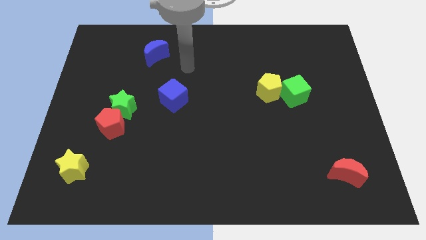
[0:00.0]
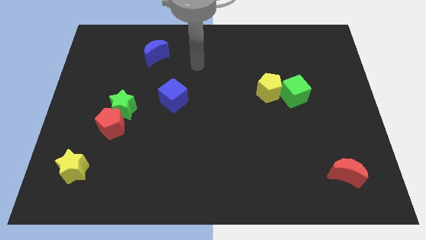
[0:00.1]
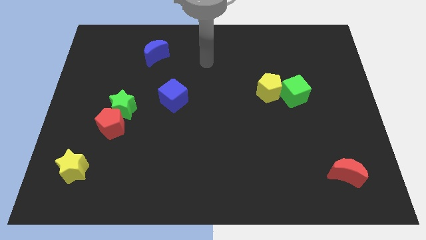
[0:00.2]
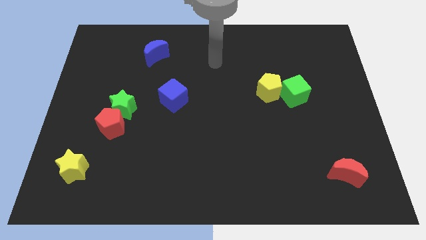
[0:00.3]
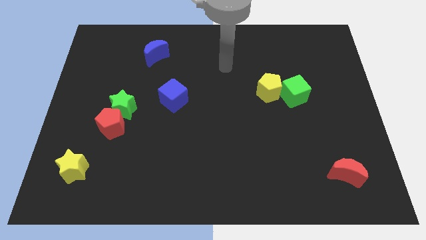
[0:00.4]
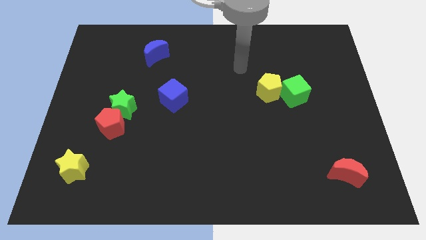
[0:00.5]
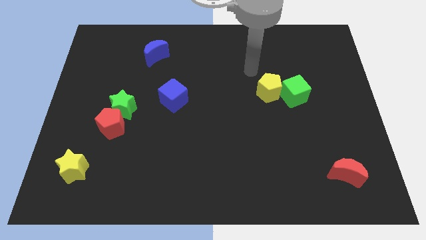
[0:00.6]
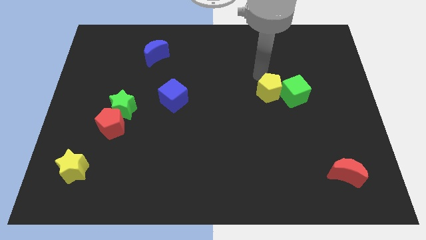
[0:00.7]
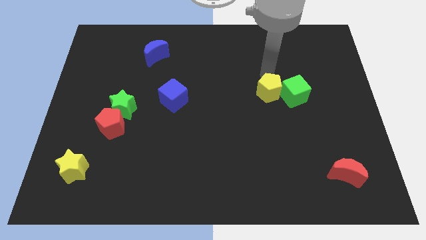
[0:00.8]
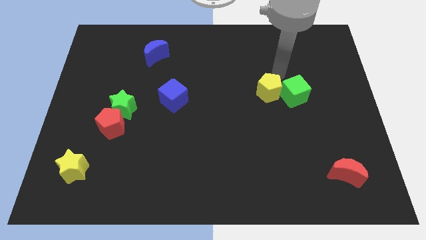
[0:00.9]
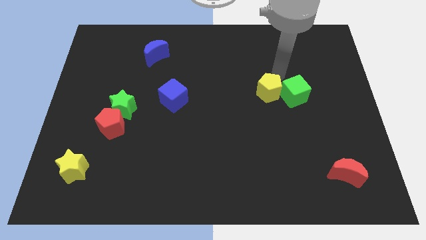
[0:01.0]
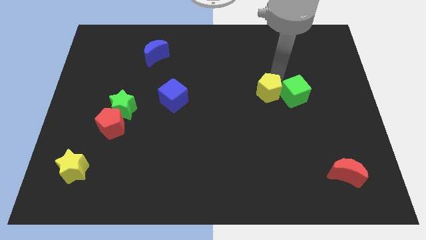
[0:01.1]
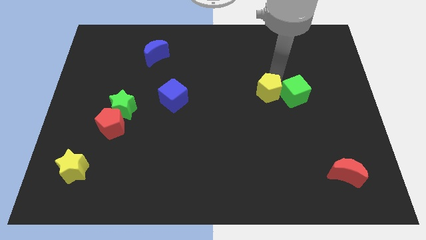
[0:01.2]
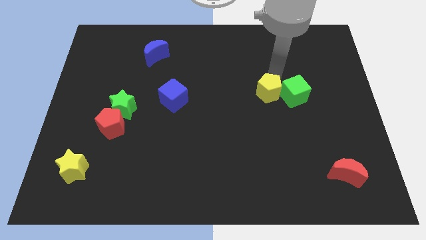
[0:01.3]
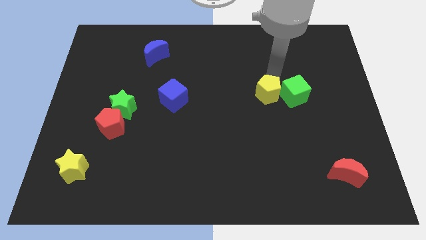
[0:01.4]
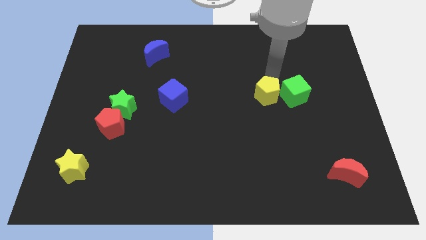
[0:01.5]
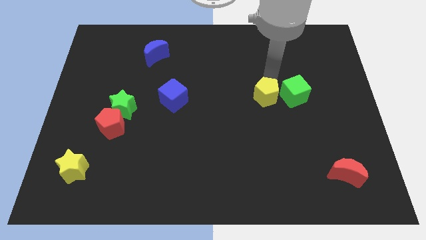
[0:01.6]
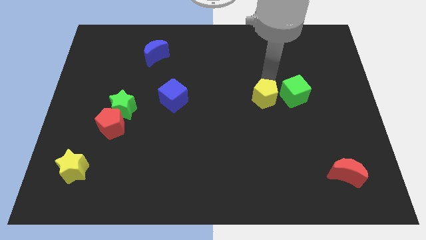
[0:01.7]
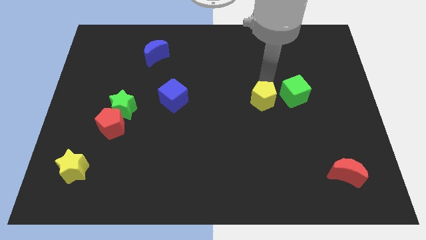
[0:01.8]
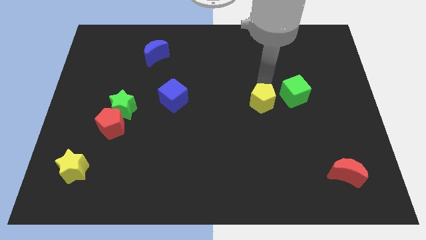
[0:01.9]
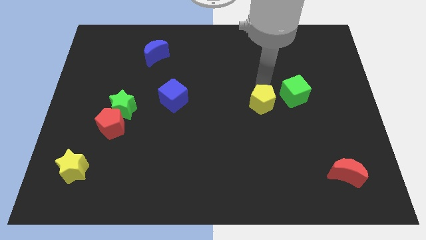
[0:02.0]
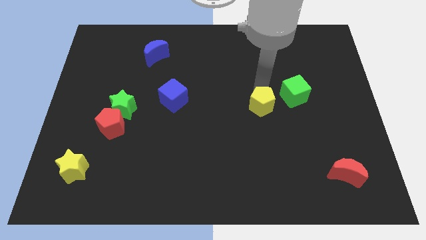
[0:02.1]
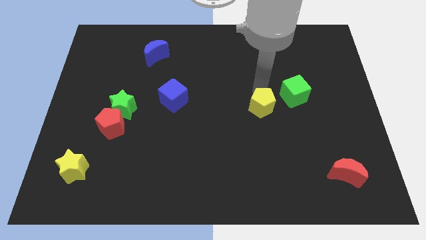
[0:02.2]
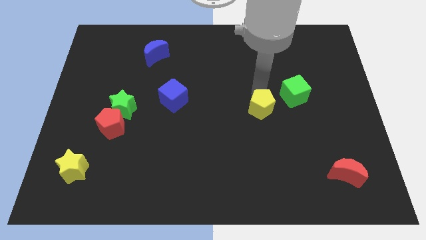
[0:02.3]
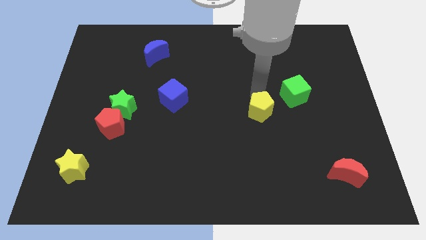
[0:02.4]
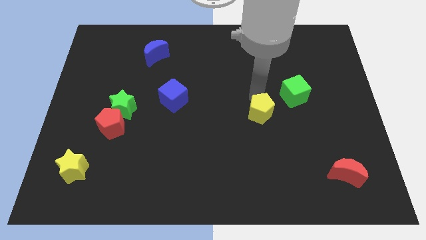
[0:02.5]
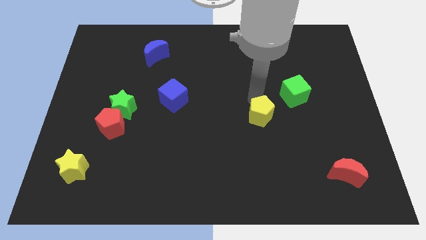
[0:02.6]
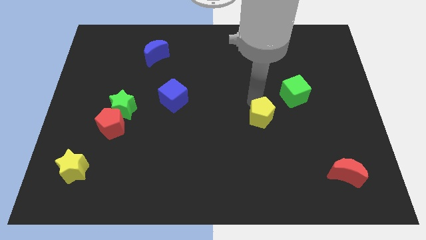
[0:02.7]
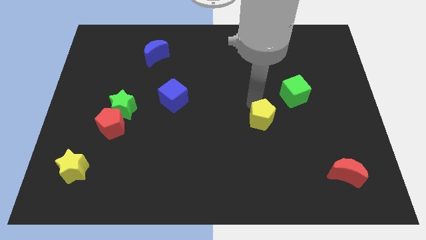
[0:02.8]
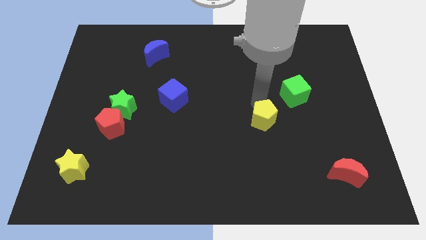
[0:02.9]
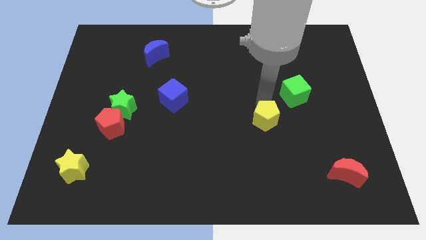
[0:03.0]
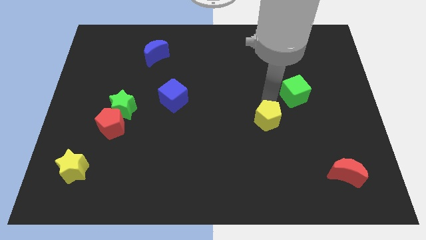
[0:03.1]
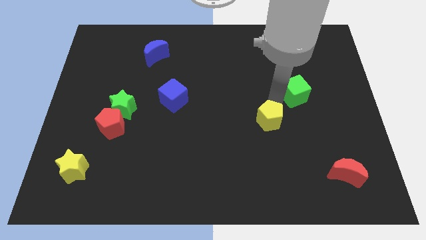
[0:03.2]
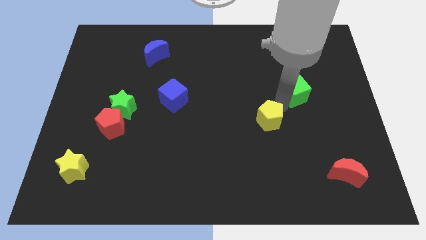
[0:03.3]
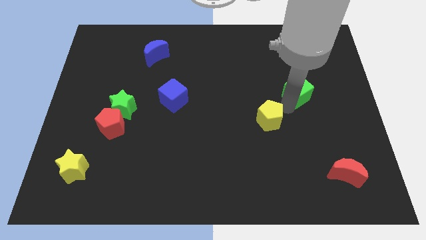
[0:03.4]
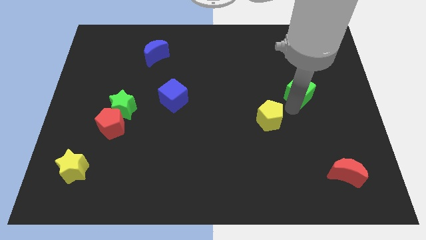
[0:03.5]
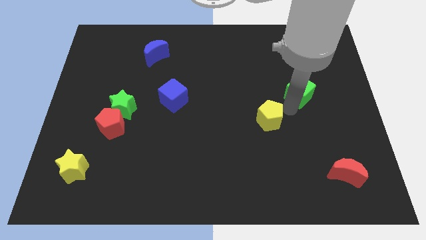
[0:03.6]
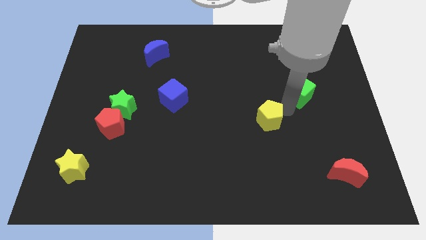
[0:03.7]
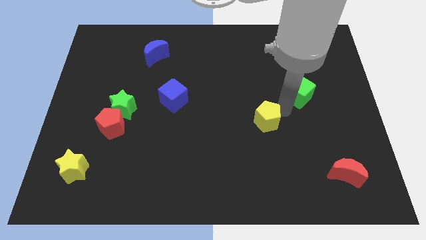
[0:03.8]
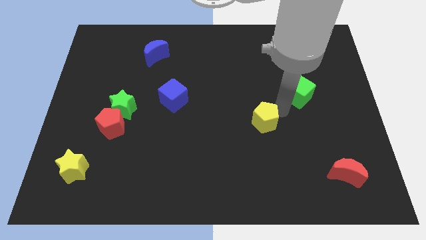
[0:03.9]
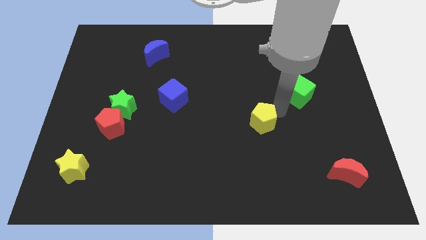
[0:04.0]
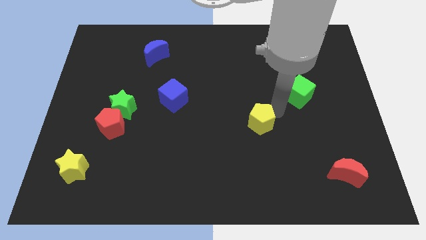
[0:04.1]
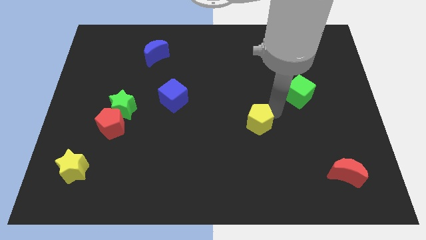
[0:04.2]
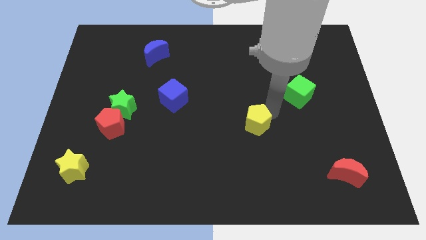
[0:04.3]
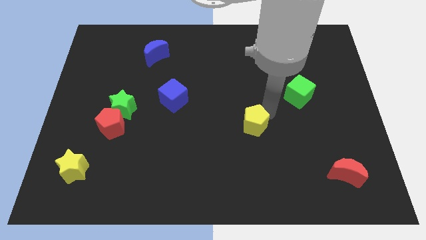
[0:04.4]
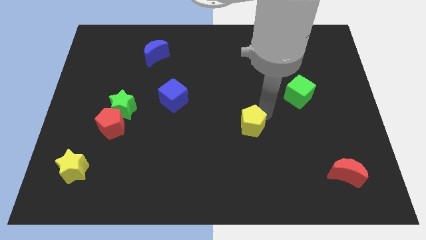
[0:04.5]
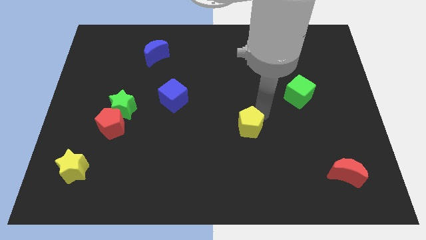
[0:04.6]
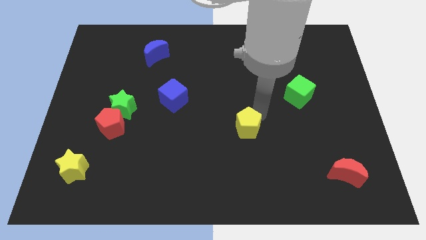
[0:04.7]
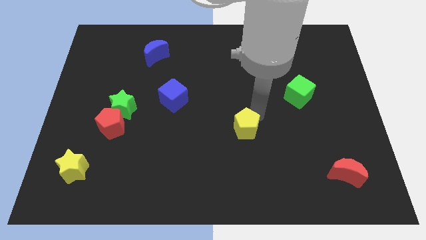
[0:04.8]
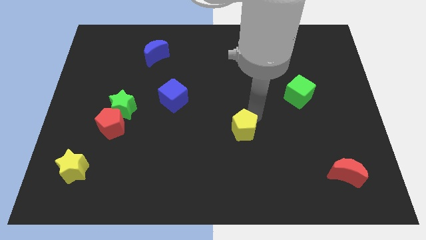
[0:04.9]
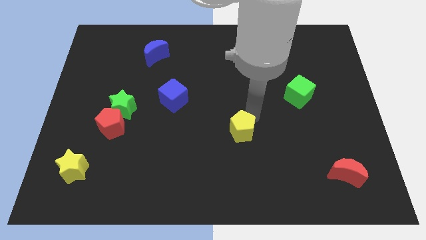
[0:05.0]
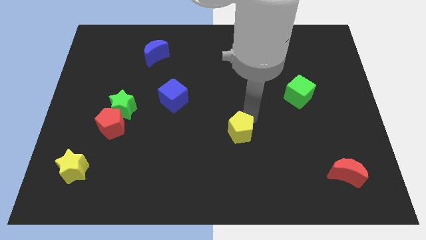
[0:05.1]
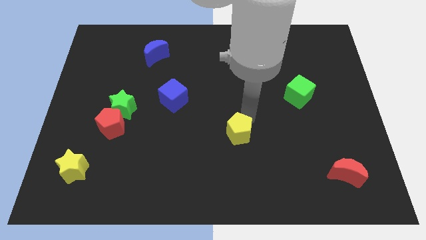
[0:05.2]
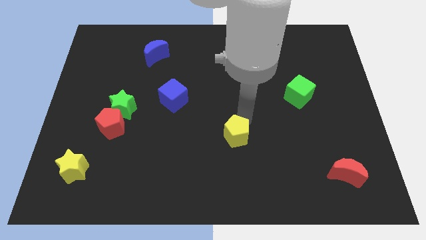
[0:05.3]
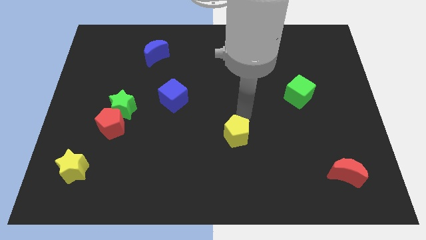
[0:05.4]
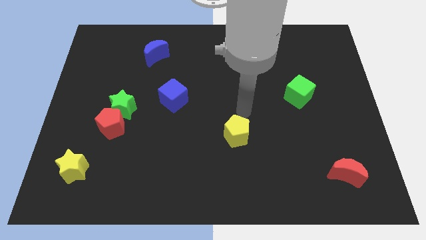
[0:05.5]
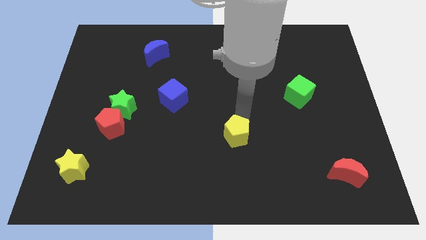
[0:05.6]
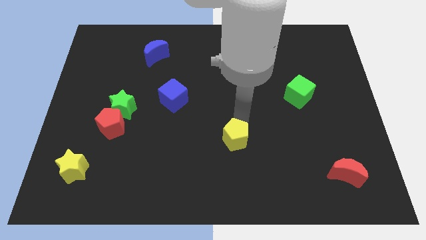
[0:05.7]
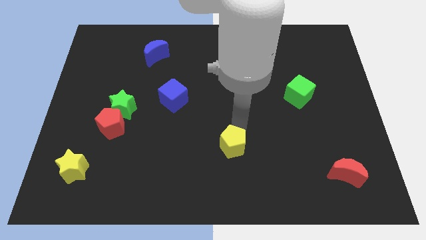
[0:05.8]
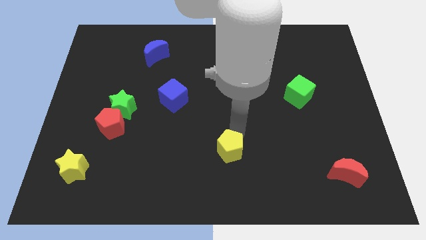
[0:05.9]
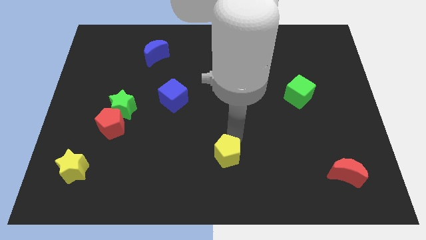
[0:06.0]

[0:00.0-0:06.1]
slide the yellow pentagon to the bottom side
